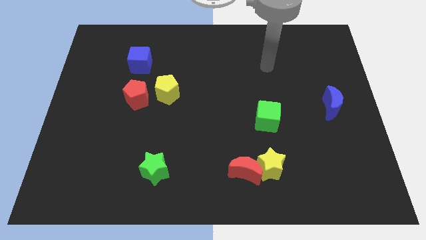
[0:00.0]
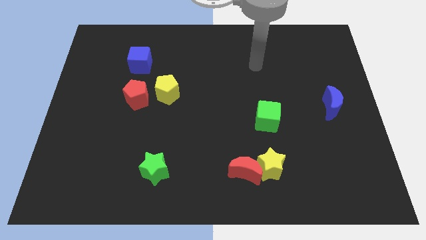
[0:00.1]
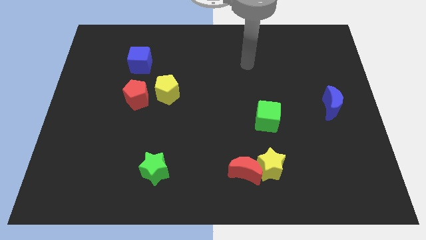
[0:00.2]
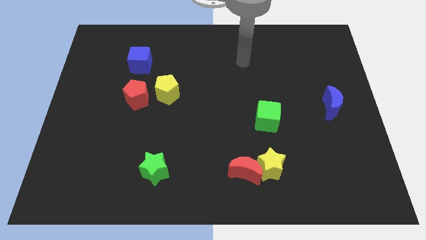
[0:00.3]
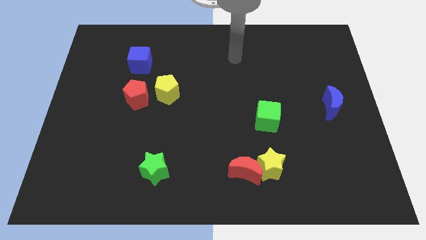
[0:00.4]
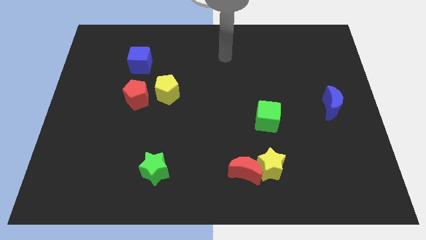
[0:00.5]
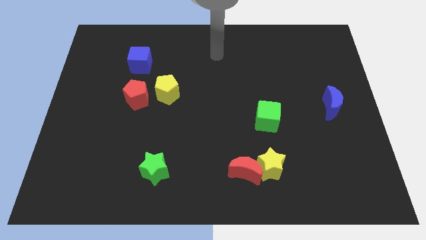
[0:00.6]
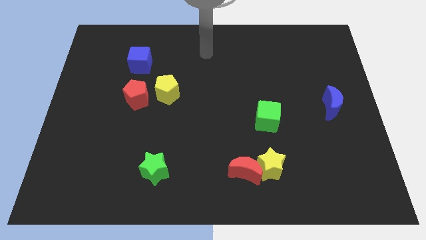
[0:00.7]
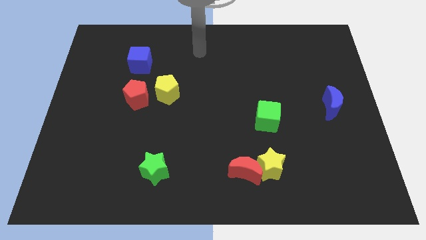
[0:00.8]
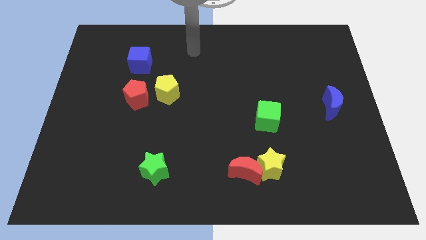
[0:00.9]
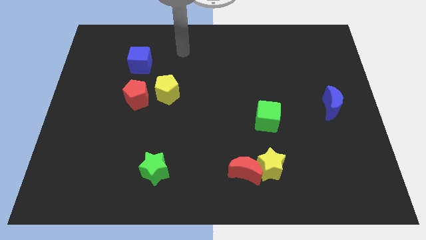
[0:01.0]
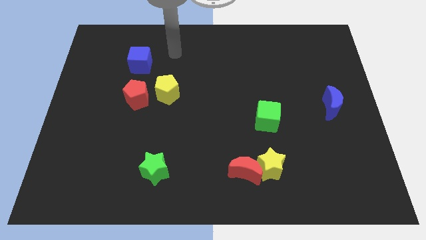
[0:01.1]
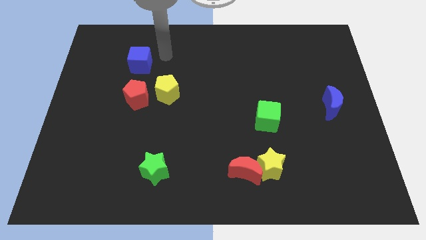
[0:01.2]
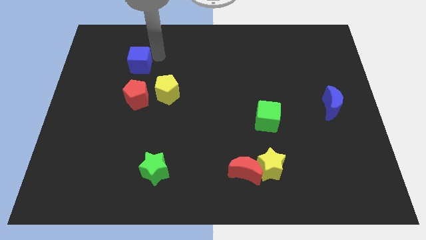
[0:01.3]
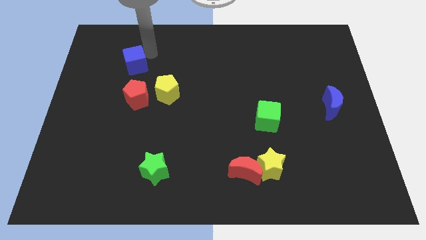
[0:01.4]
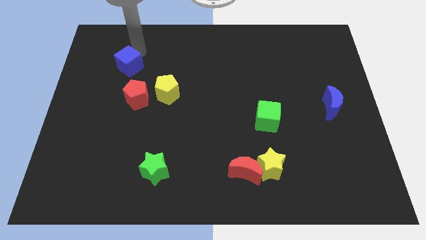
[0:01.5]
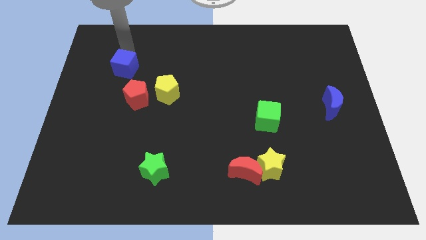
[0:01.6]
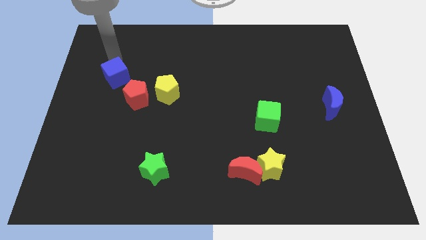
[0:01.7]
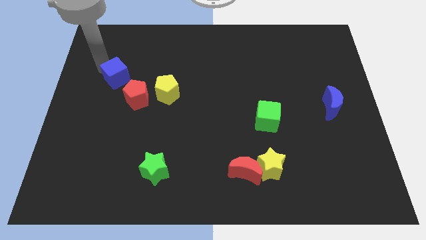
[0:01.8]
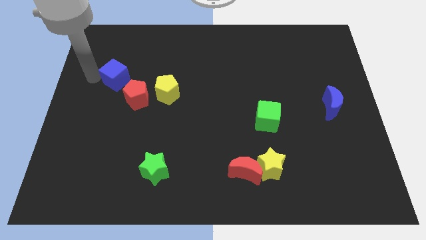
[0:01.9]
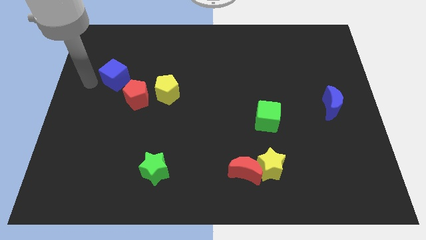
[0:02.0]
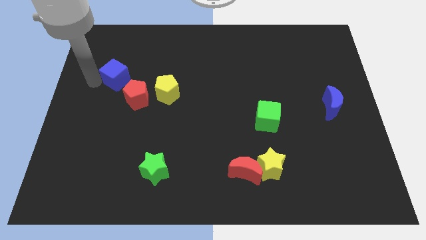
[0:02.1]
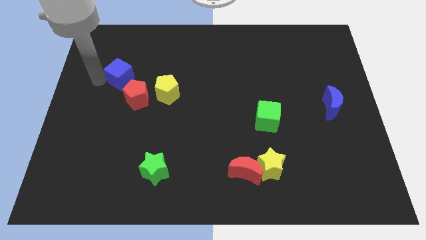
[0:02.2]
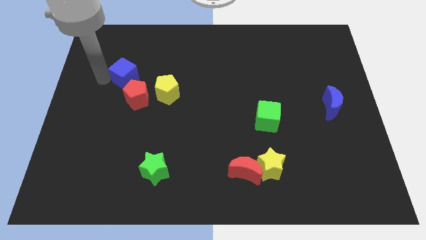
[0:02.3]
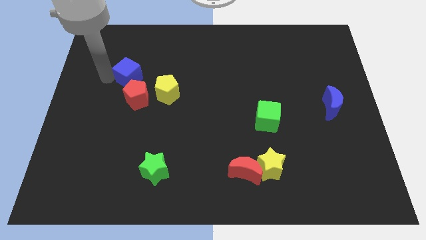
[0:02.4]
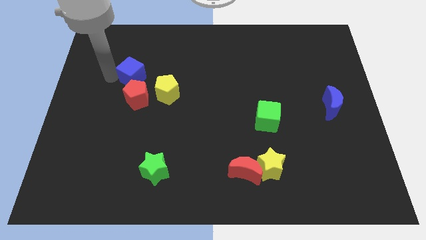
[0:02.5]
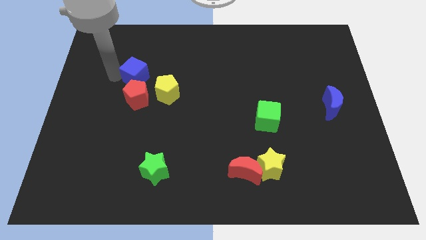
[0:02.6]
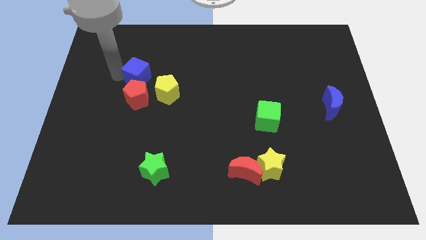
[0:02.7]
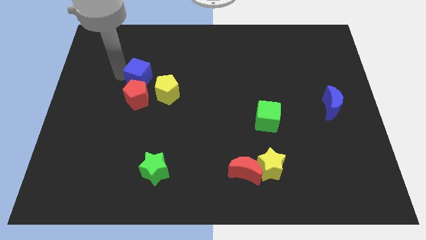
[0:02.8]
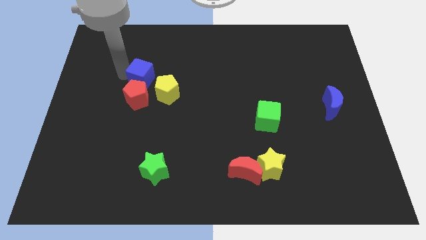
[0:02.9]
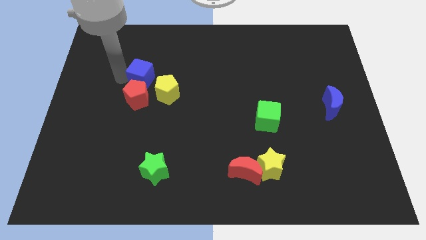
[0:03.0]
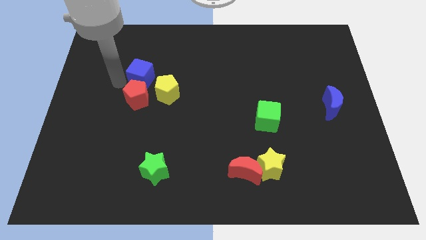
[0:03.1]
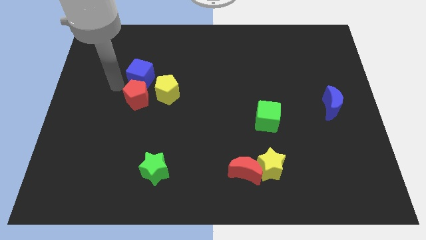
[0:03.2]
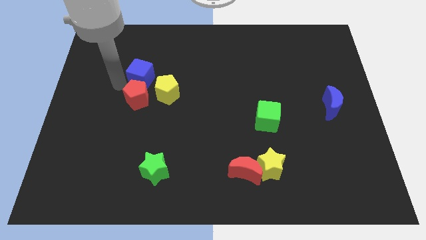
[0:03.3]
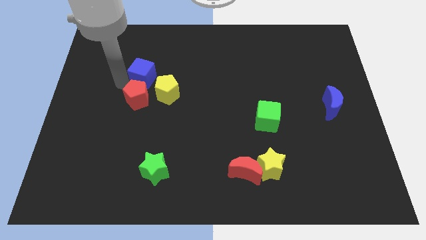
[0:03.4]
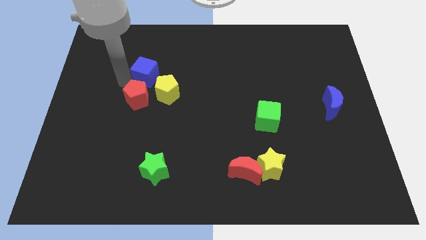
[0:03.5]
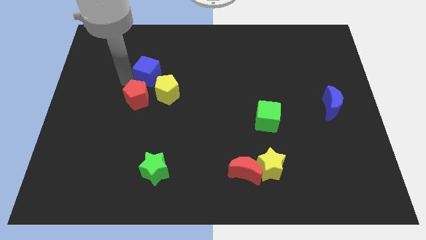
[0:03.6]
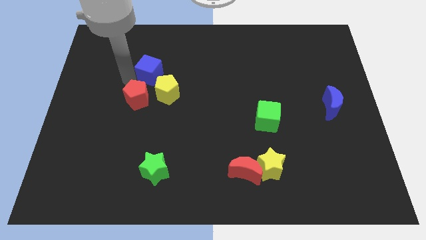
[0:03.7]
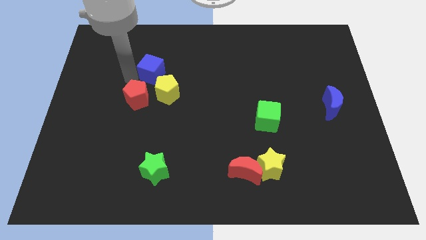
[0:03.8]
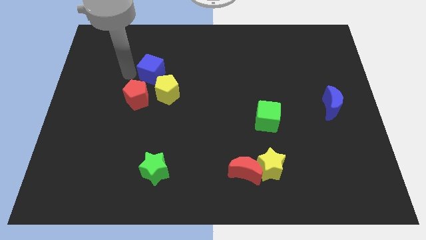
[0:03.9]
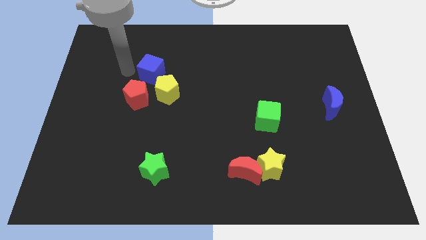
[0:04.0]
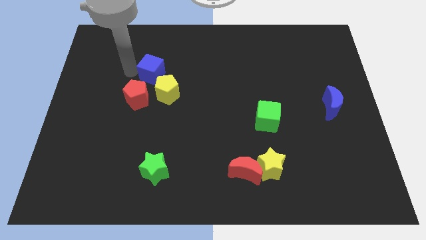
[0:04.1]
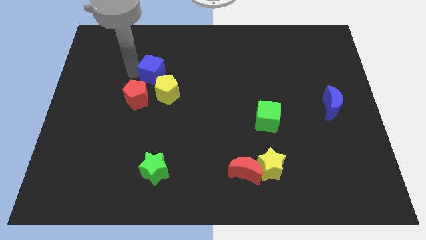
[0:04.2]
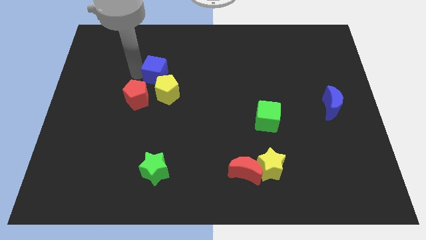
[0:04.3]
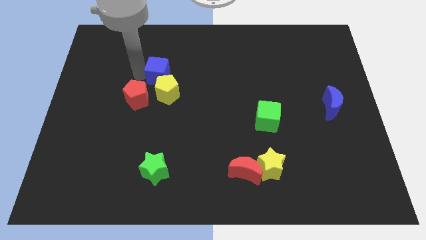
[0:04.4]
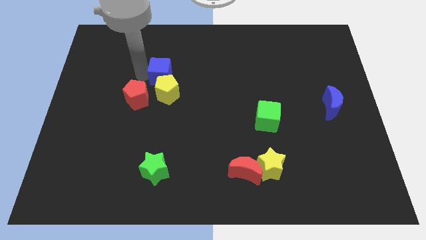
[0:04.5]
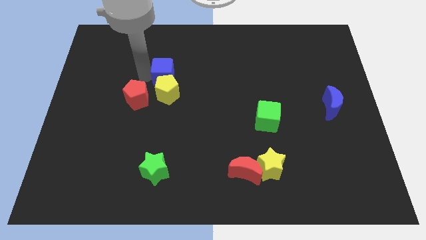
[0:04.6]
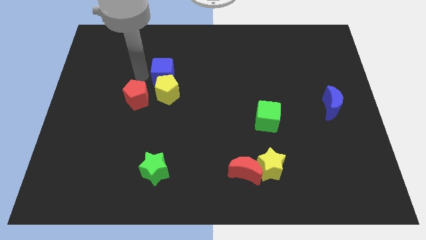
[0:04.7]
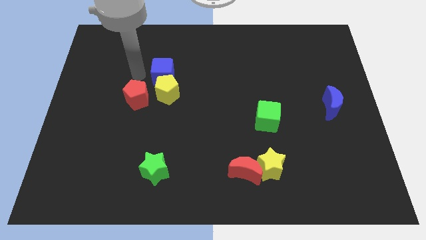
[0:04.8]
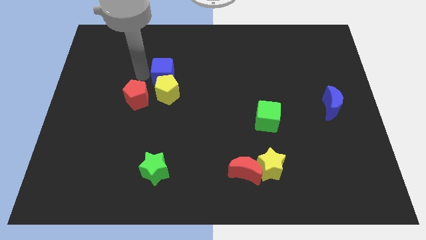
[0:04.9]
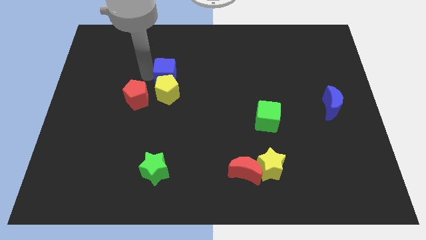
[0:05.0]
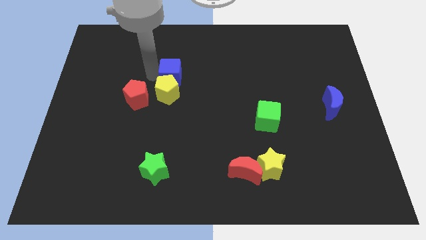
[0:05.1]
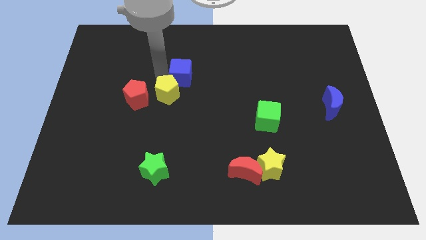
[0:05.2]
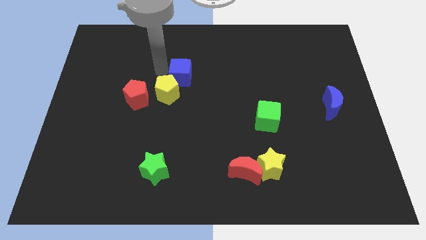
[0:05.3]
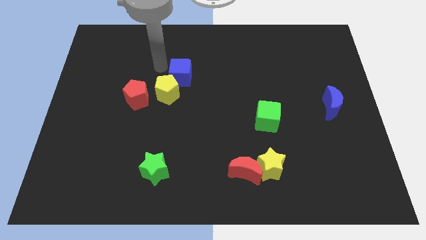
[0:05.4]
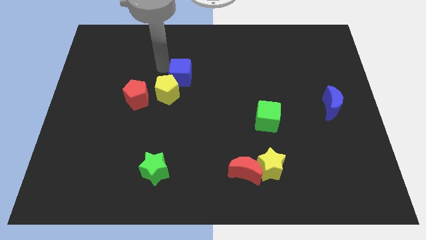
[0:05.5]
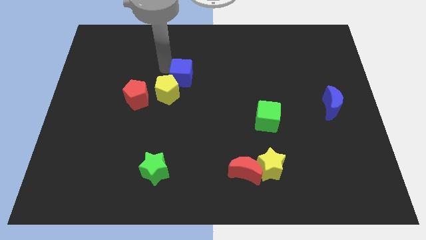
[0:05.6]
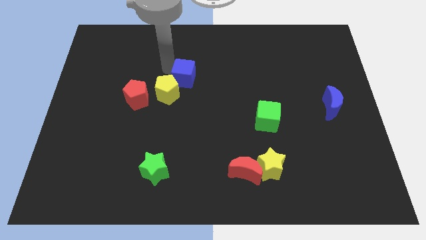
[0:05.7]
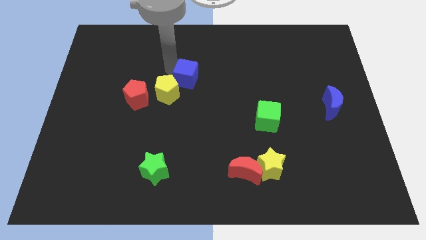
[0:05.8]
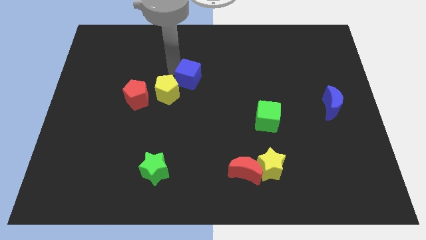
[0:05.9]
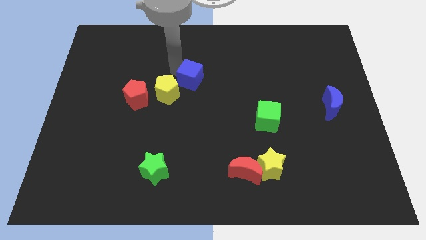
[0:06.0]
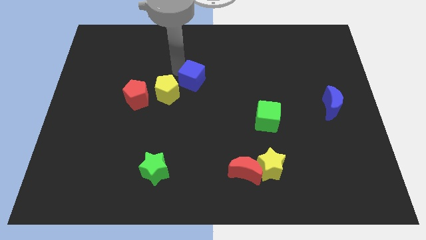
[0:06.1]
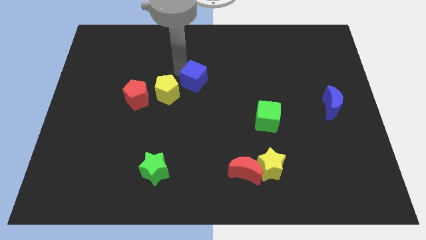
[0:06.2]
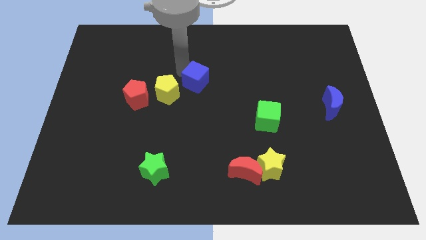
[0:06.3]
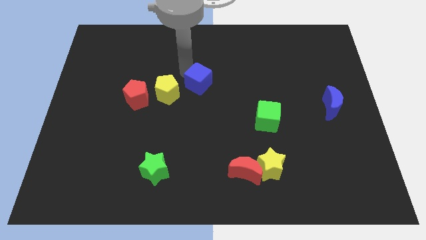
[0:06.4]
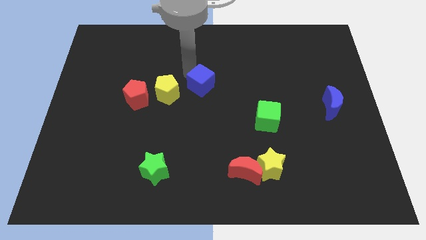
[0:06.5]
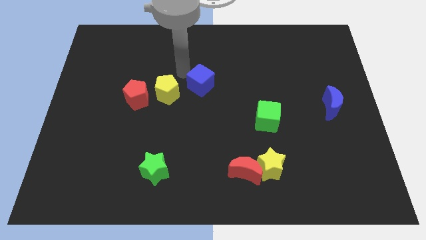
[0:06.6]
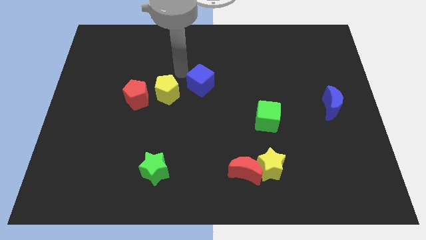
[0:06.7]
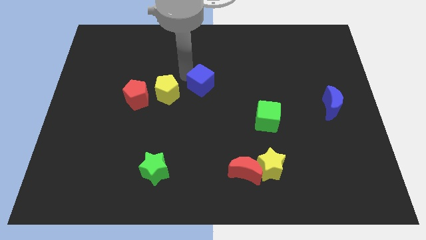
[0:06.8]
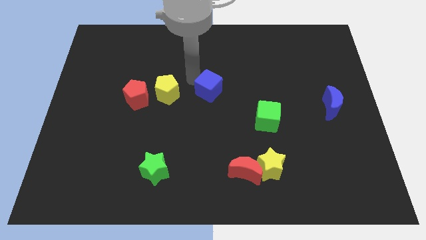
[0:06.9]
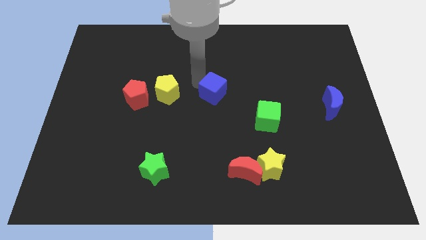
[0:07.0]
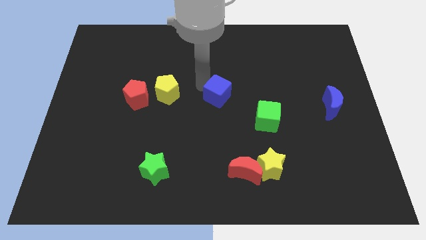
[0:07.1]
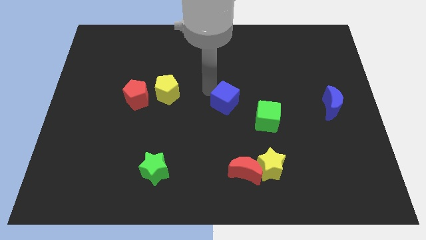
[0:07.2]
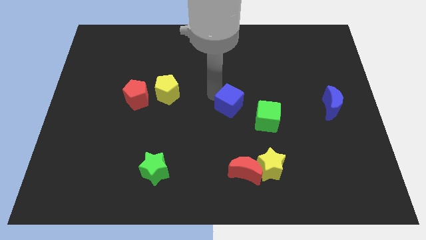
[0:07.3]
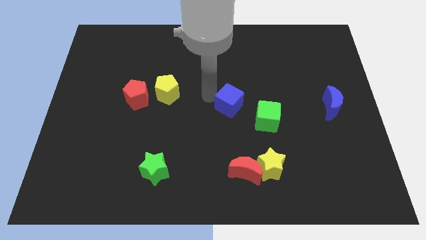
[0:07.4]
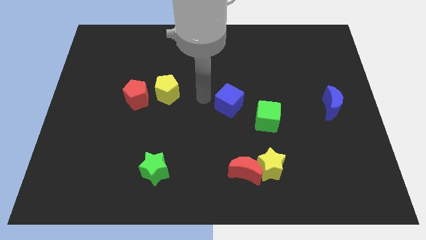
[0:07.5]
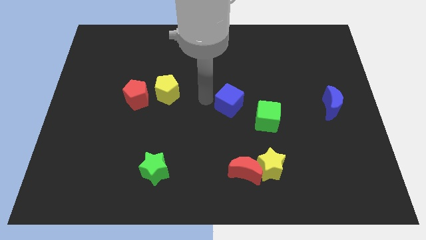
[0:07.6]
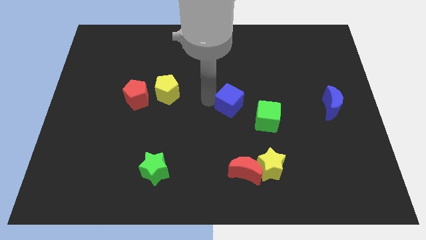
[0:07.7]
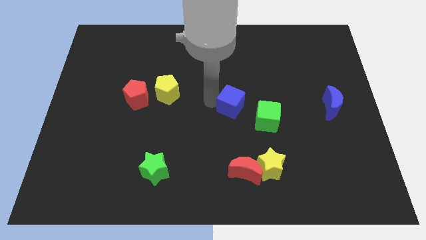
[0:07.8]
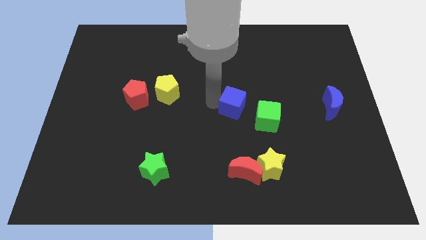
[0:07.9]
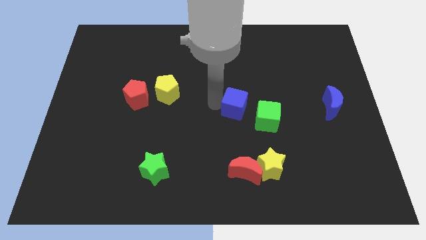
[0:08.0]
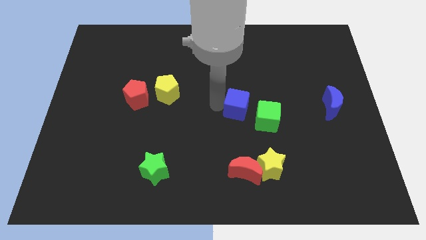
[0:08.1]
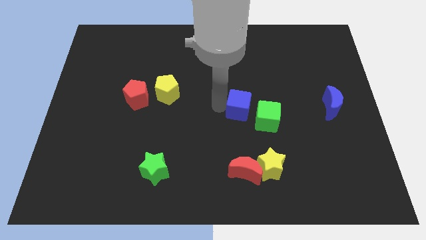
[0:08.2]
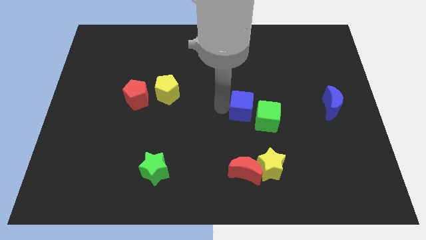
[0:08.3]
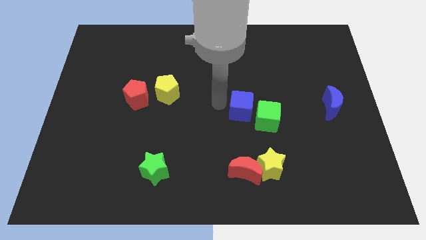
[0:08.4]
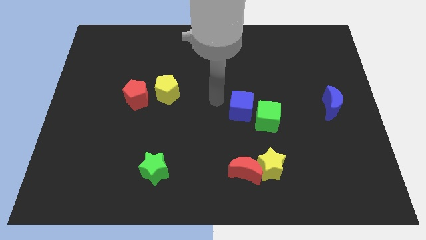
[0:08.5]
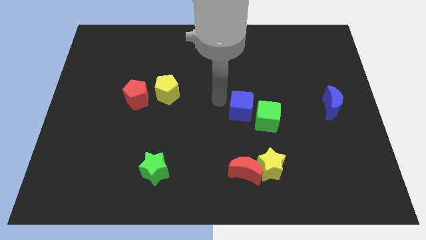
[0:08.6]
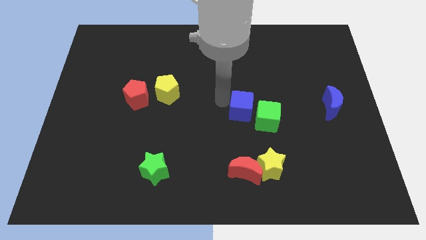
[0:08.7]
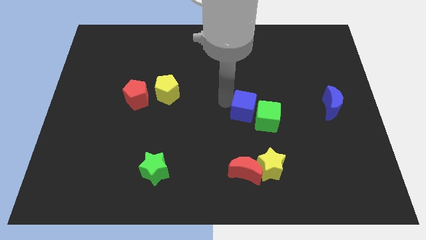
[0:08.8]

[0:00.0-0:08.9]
slide the blue cube to the green cube
